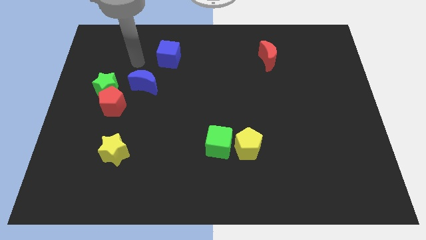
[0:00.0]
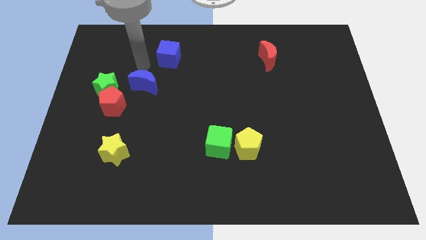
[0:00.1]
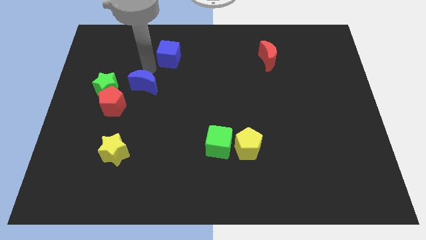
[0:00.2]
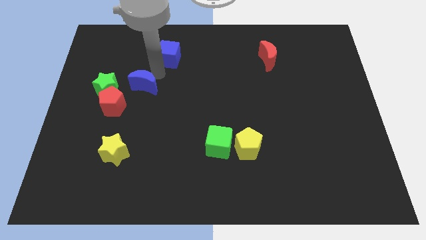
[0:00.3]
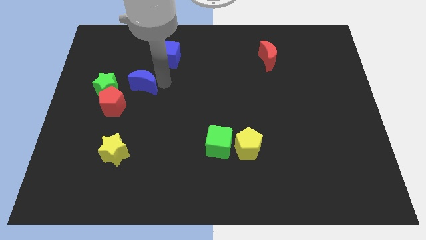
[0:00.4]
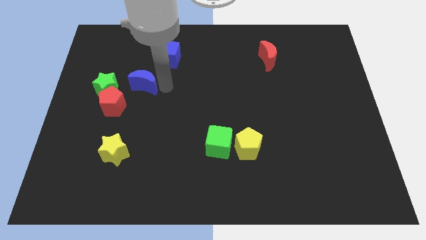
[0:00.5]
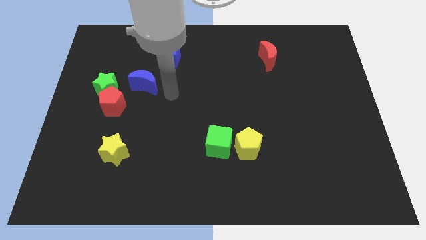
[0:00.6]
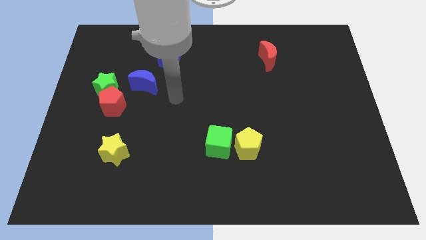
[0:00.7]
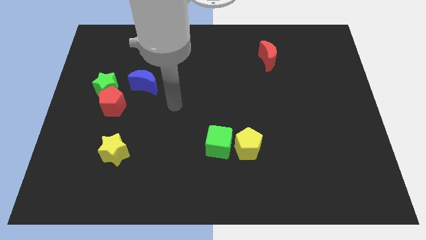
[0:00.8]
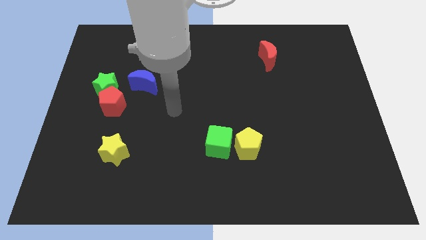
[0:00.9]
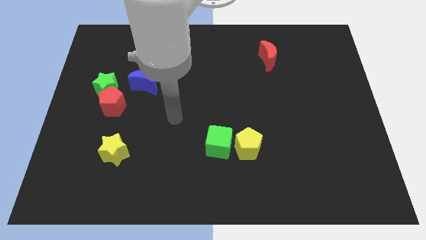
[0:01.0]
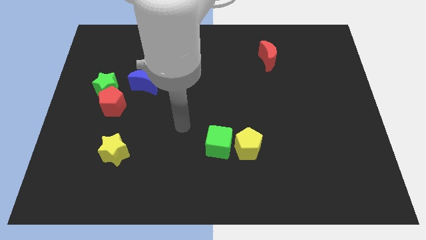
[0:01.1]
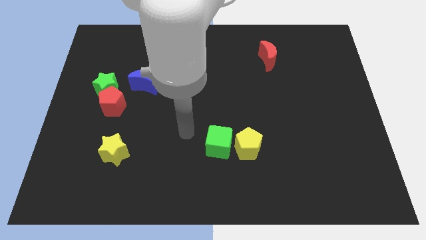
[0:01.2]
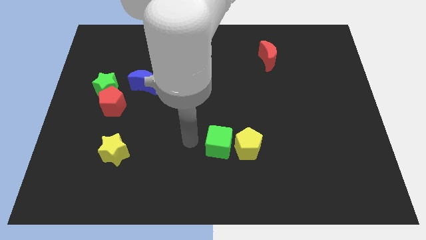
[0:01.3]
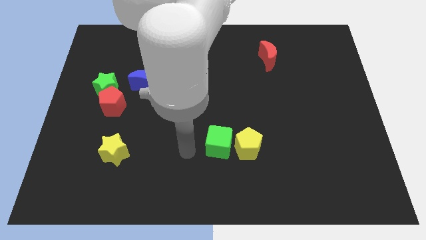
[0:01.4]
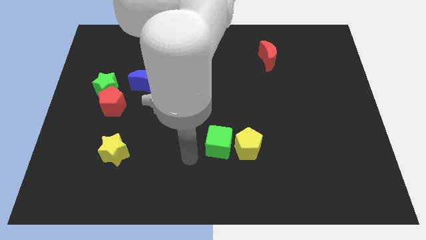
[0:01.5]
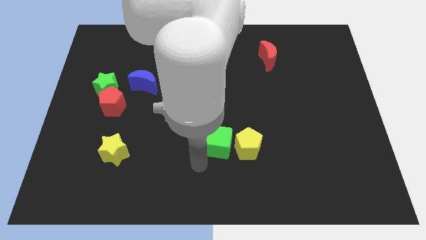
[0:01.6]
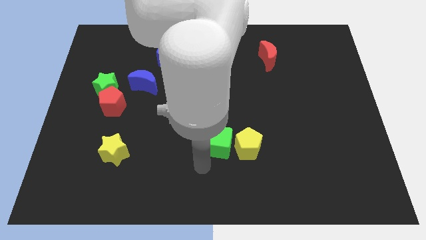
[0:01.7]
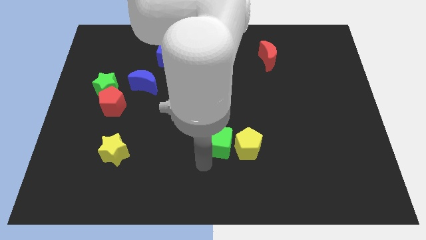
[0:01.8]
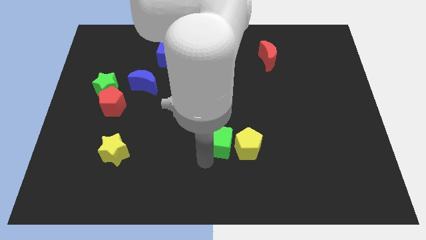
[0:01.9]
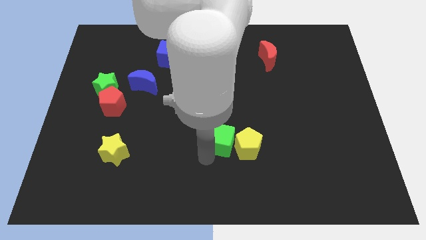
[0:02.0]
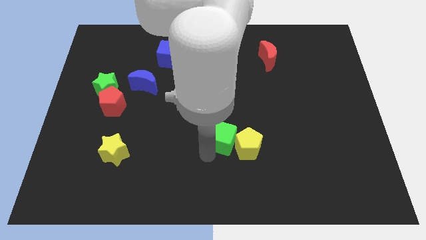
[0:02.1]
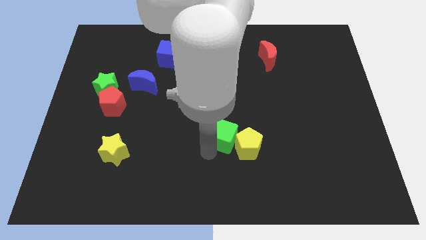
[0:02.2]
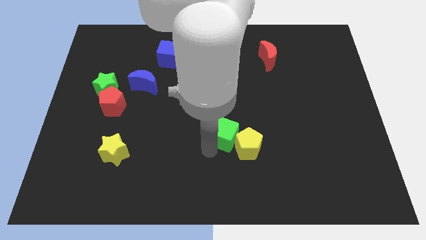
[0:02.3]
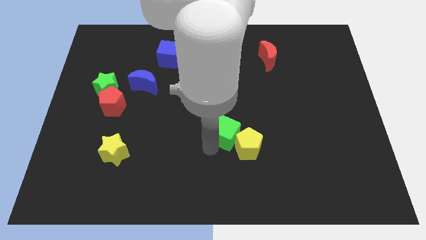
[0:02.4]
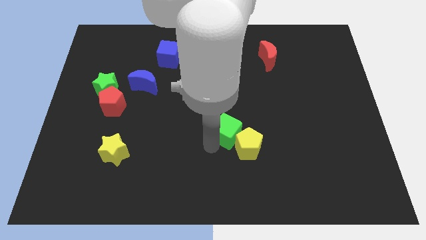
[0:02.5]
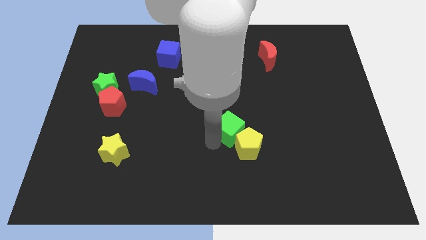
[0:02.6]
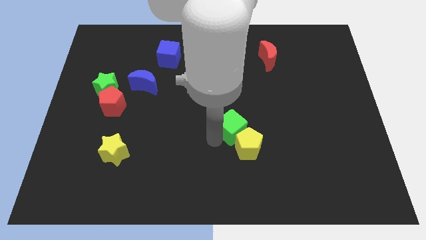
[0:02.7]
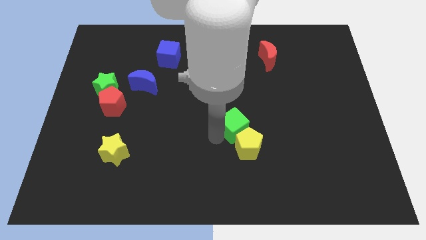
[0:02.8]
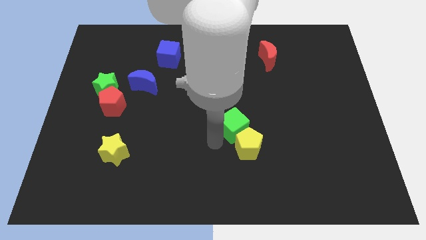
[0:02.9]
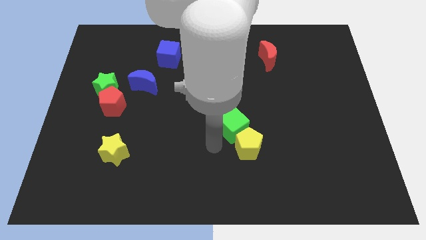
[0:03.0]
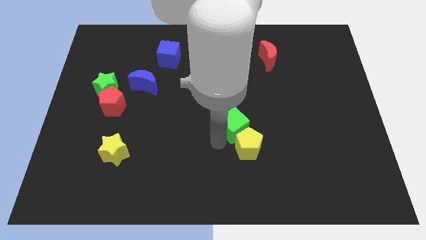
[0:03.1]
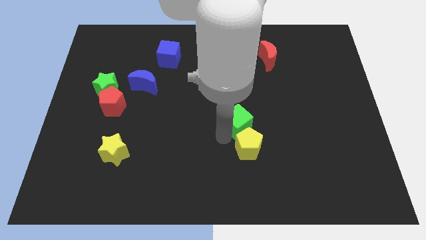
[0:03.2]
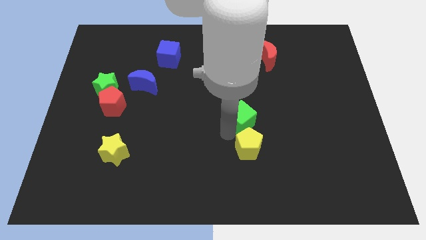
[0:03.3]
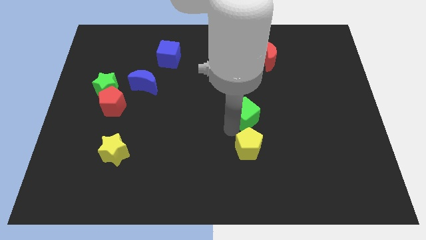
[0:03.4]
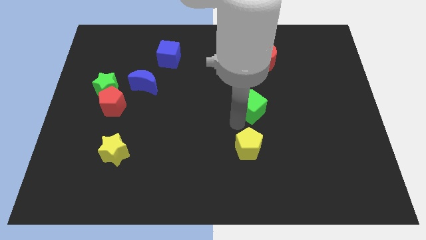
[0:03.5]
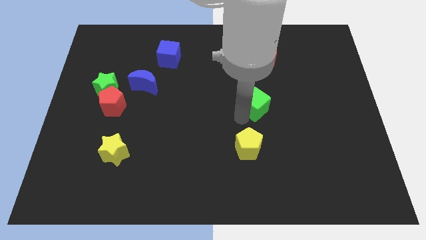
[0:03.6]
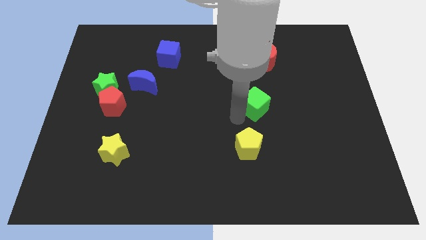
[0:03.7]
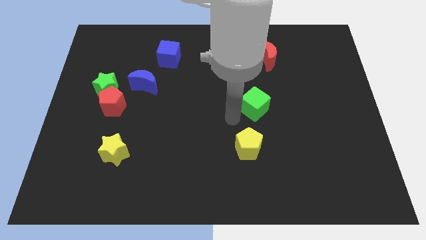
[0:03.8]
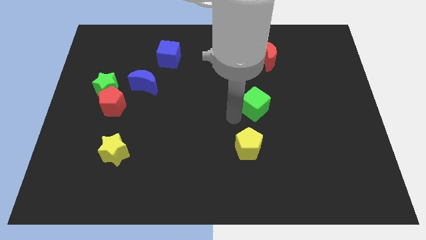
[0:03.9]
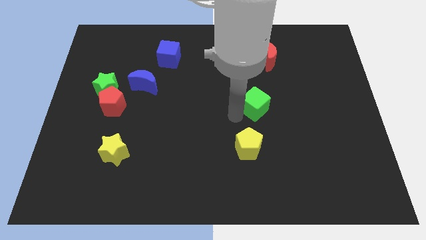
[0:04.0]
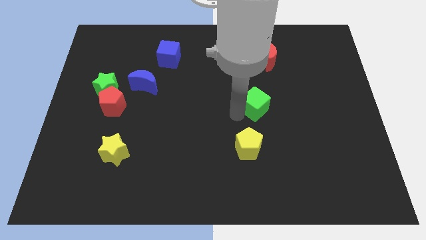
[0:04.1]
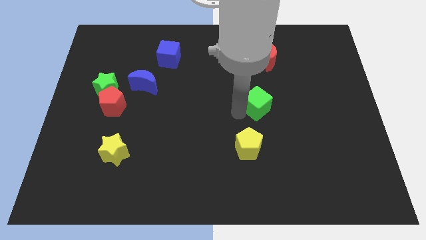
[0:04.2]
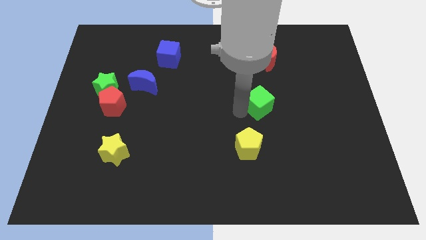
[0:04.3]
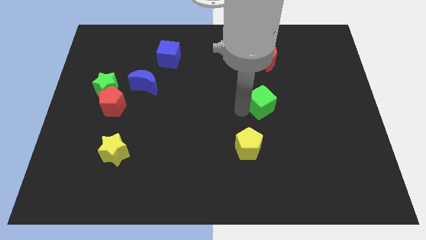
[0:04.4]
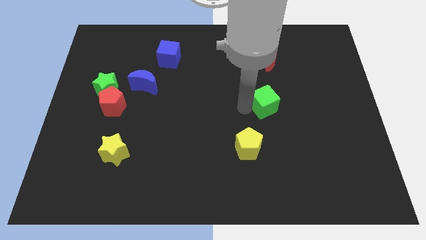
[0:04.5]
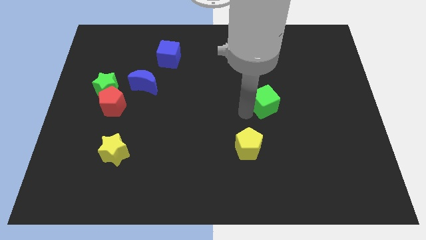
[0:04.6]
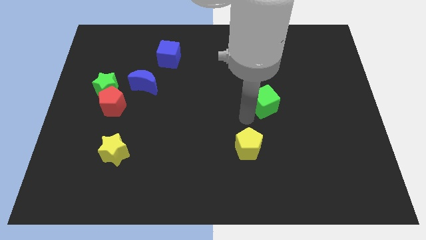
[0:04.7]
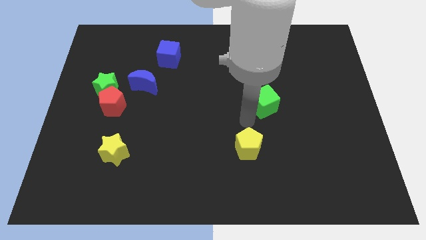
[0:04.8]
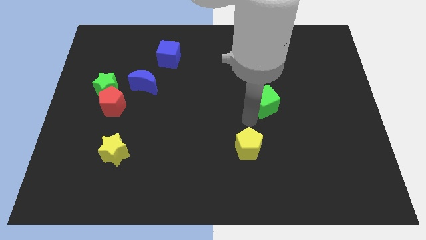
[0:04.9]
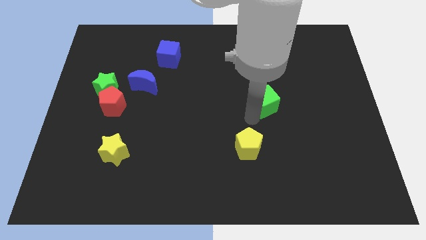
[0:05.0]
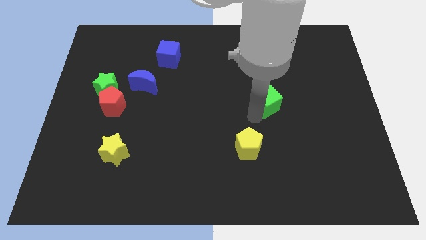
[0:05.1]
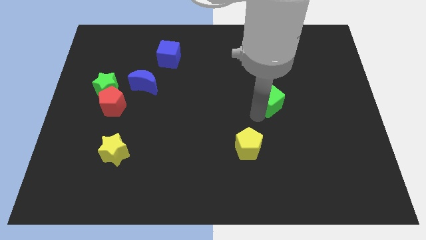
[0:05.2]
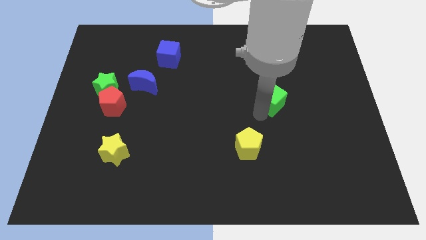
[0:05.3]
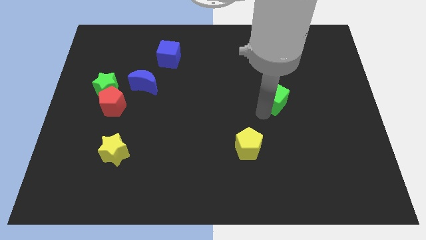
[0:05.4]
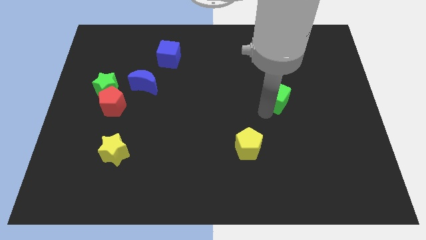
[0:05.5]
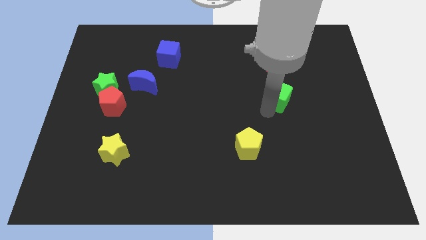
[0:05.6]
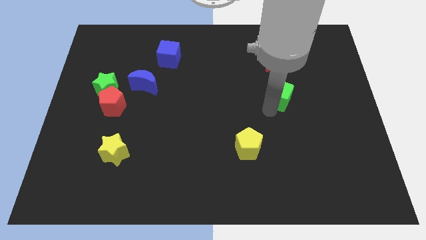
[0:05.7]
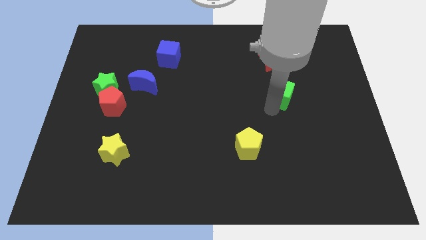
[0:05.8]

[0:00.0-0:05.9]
move the green cube diagonally up and to the right

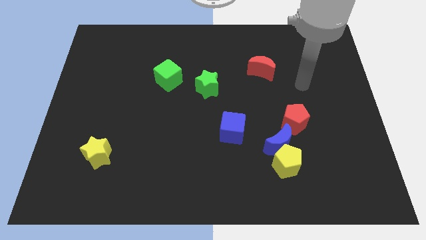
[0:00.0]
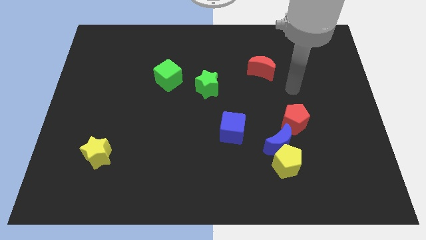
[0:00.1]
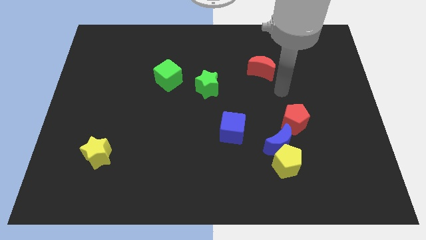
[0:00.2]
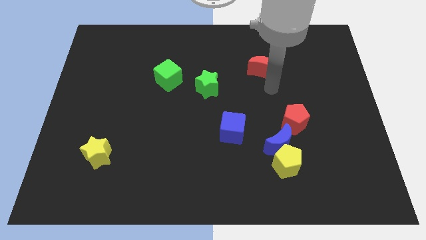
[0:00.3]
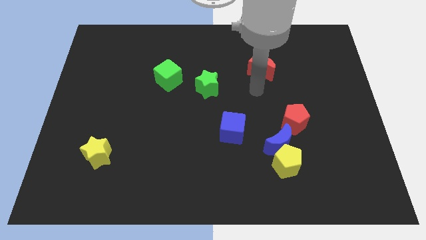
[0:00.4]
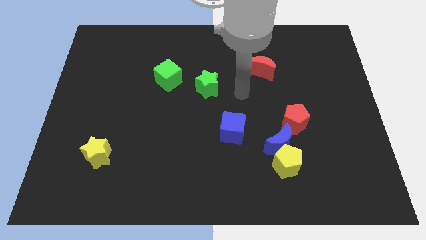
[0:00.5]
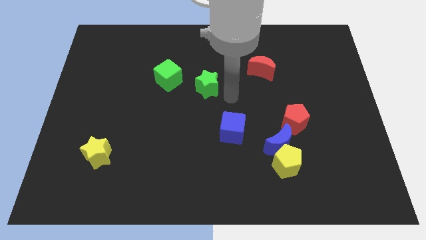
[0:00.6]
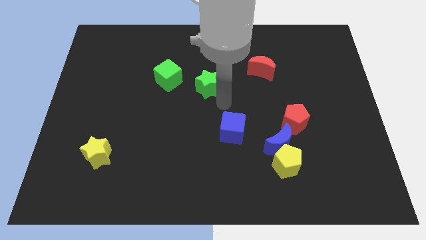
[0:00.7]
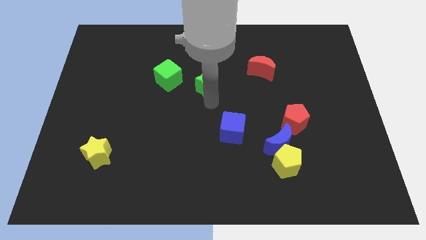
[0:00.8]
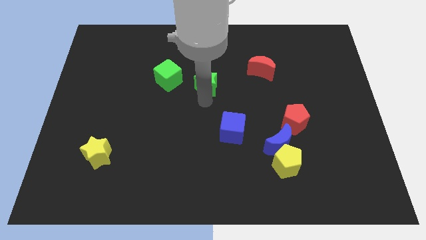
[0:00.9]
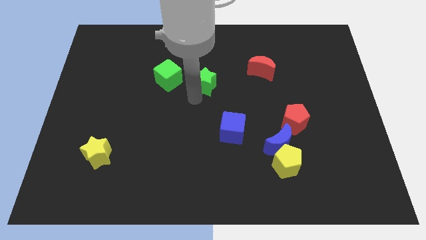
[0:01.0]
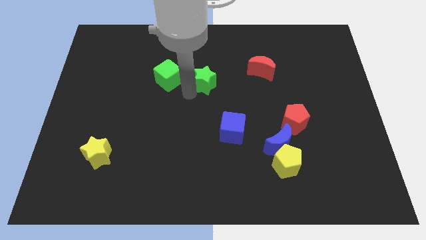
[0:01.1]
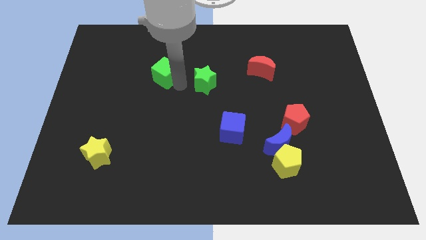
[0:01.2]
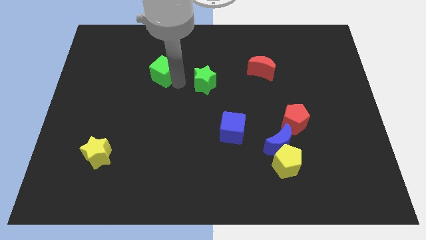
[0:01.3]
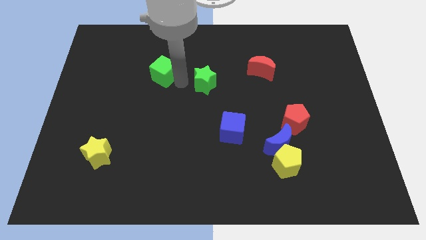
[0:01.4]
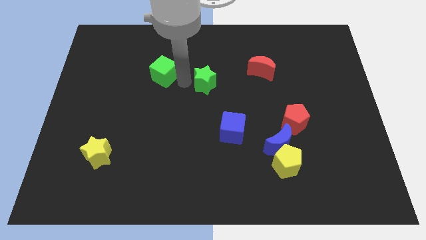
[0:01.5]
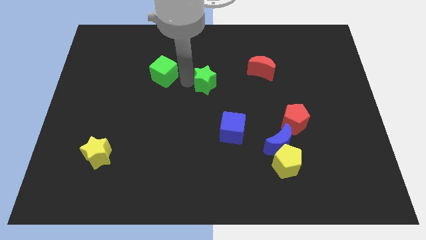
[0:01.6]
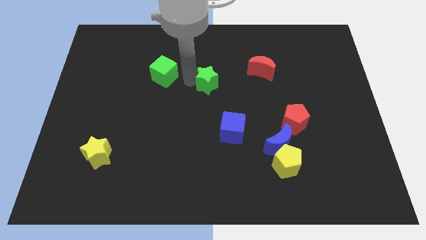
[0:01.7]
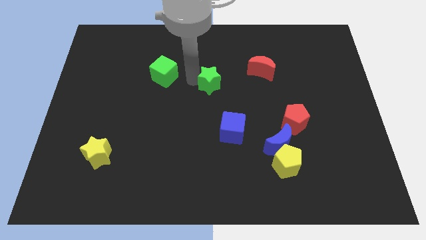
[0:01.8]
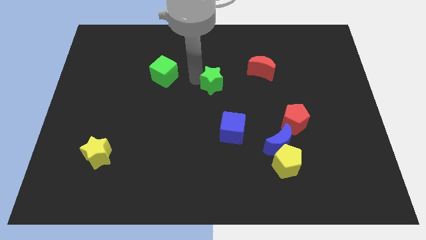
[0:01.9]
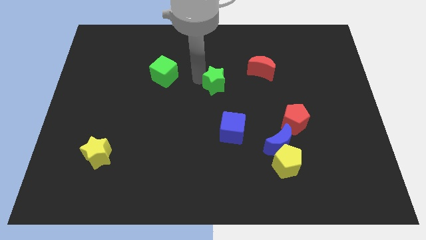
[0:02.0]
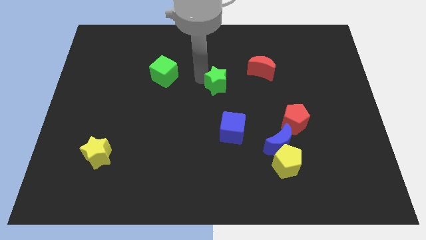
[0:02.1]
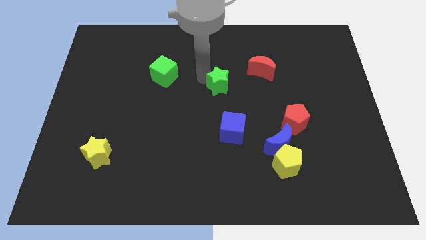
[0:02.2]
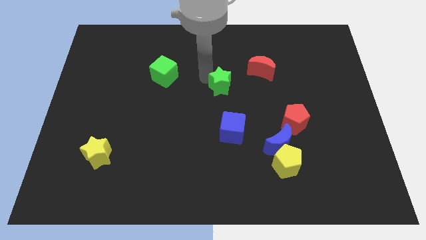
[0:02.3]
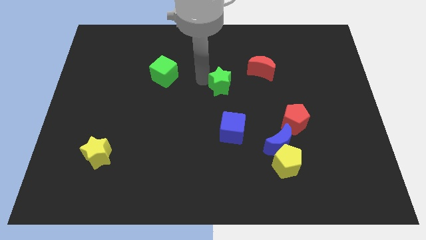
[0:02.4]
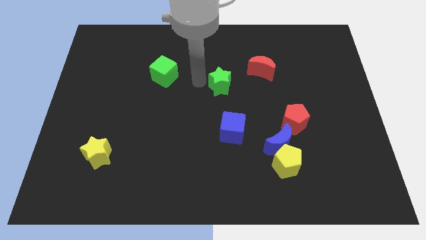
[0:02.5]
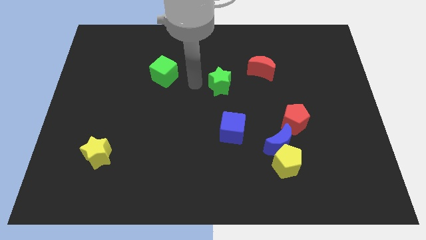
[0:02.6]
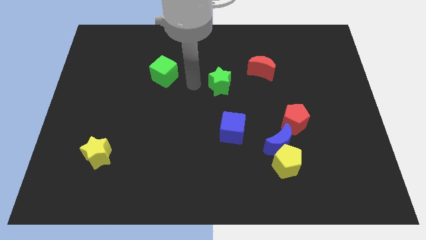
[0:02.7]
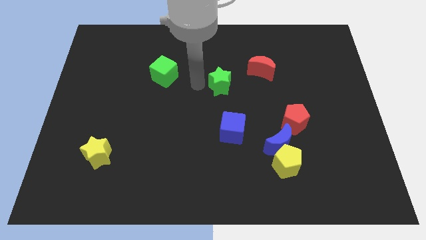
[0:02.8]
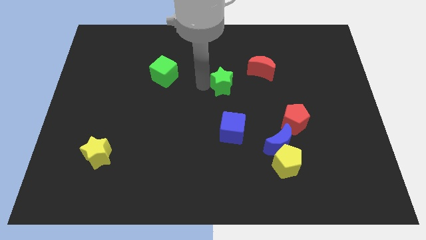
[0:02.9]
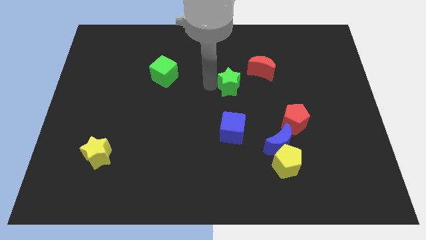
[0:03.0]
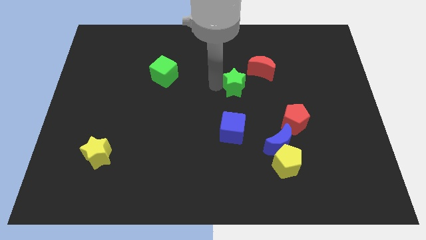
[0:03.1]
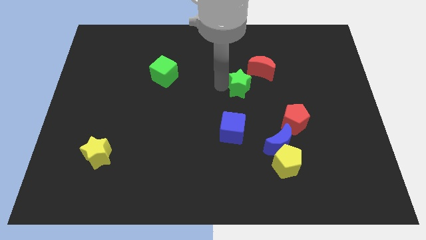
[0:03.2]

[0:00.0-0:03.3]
slightly slide the green star right
